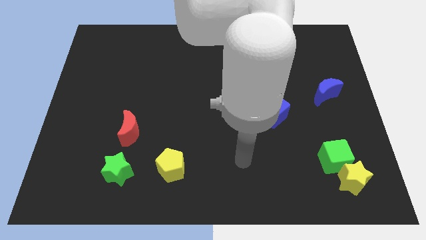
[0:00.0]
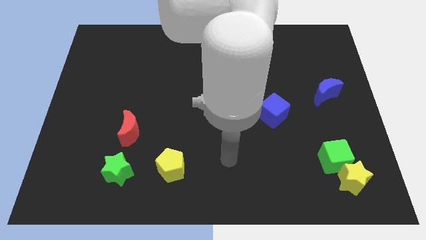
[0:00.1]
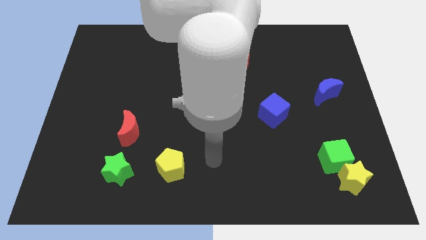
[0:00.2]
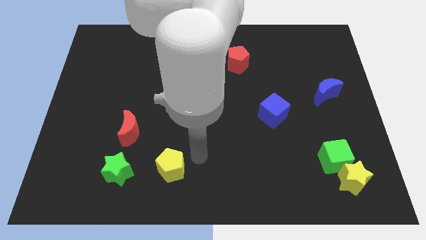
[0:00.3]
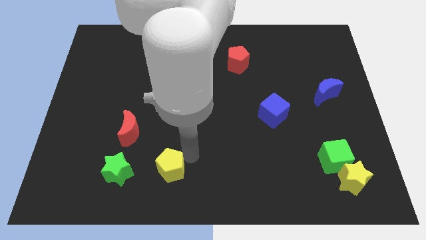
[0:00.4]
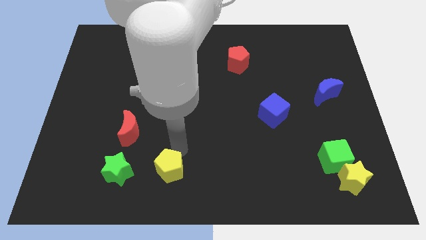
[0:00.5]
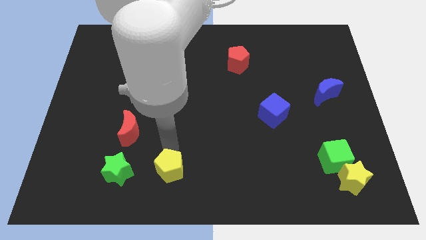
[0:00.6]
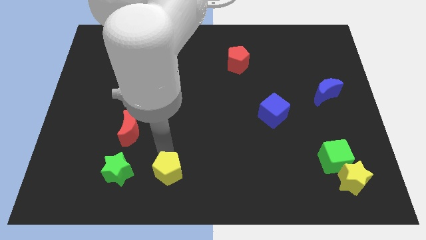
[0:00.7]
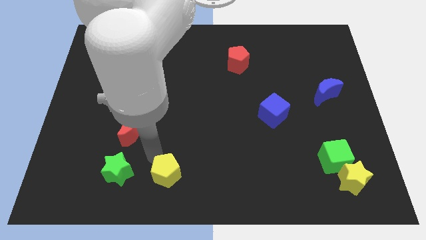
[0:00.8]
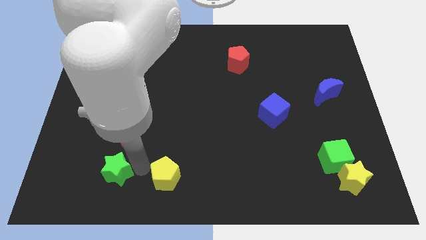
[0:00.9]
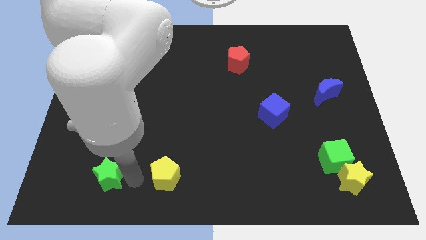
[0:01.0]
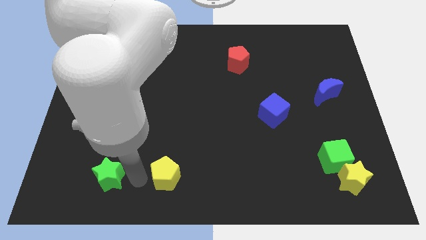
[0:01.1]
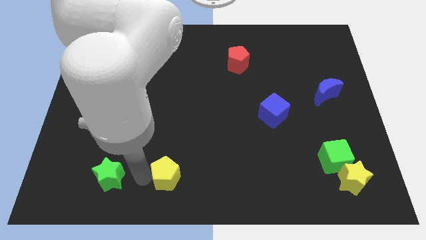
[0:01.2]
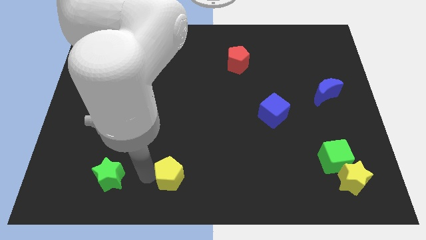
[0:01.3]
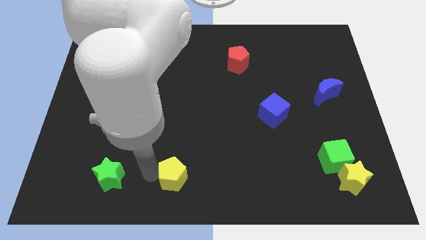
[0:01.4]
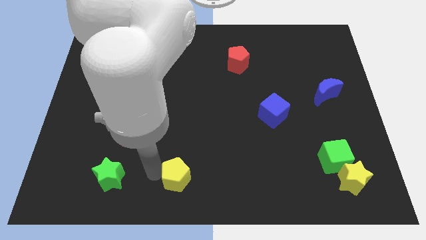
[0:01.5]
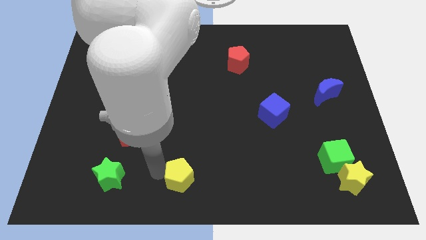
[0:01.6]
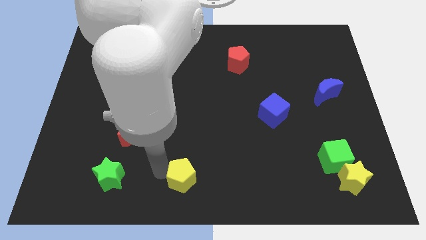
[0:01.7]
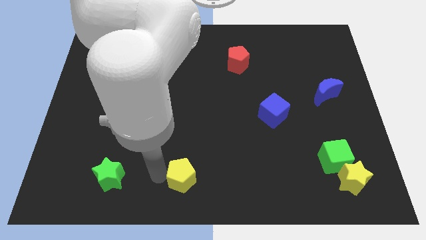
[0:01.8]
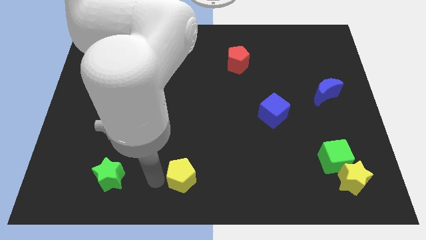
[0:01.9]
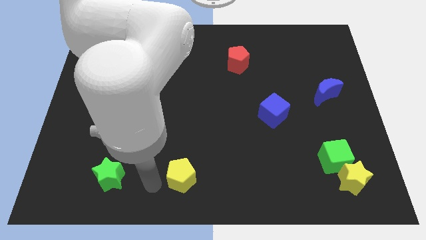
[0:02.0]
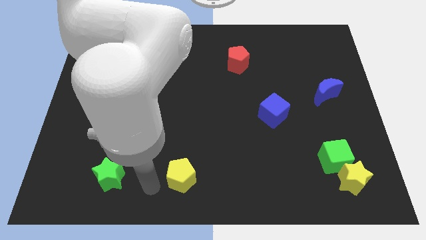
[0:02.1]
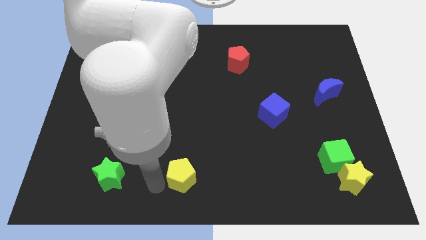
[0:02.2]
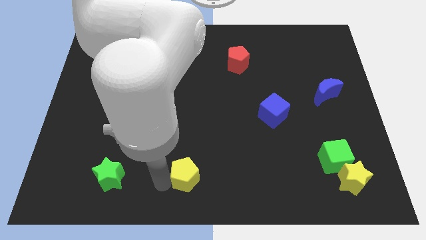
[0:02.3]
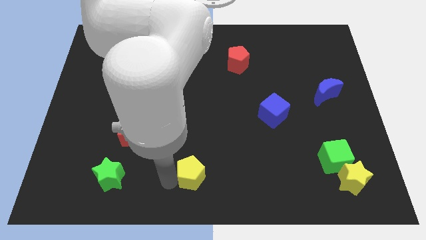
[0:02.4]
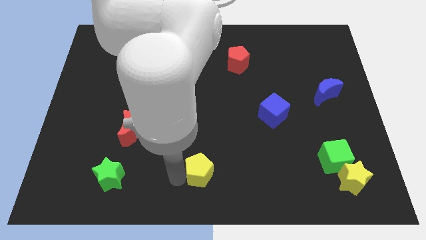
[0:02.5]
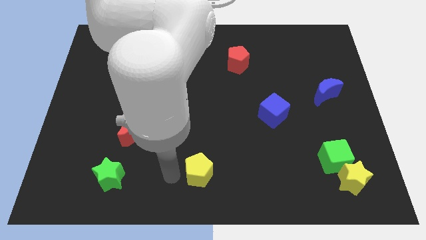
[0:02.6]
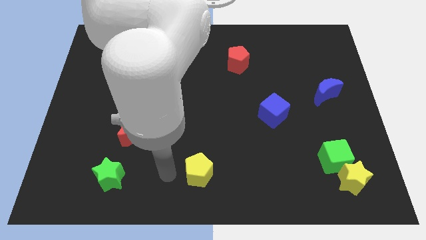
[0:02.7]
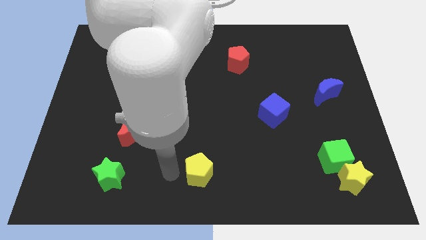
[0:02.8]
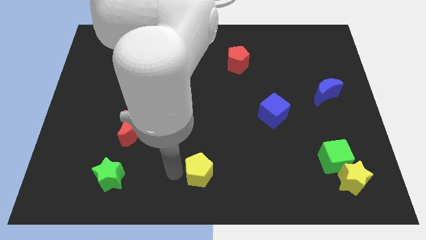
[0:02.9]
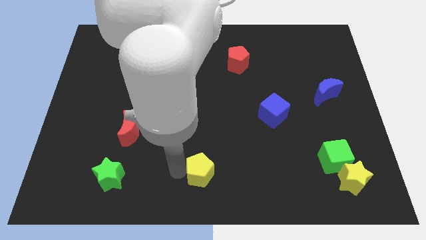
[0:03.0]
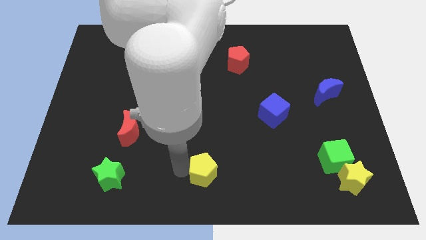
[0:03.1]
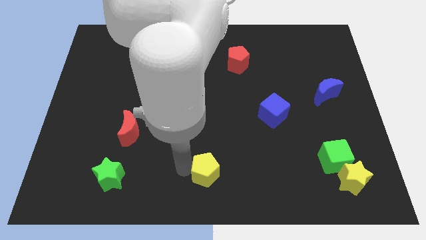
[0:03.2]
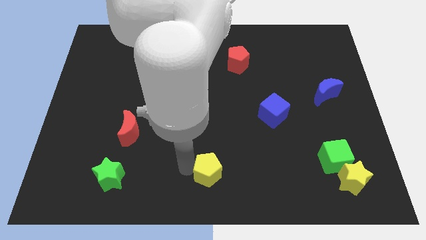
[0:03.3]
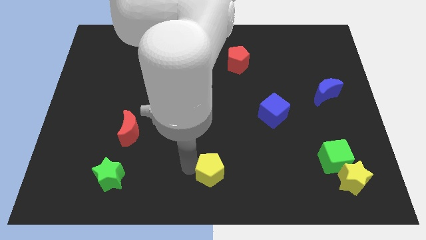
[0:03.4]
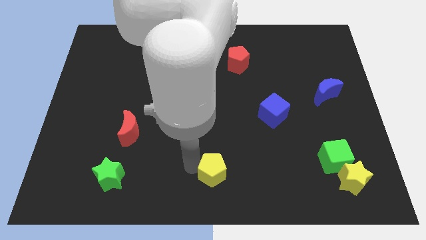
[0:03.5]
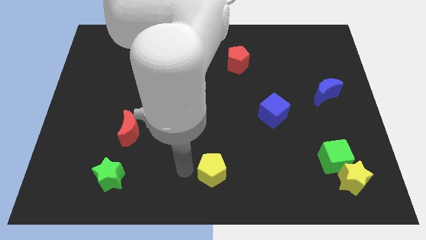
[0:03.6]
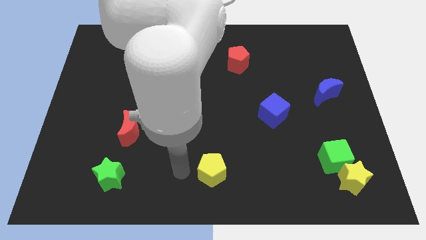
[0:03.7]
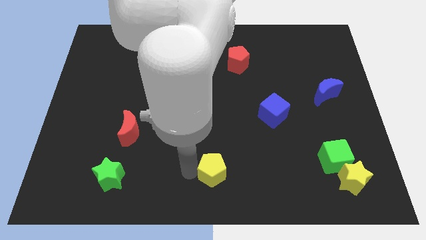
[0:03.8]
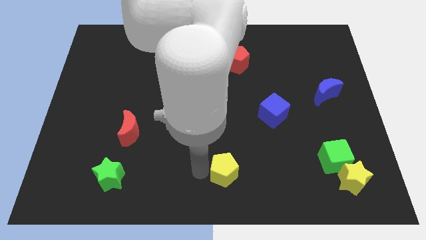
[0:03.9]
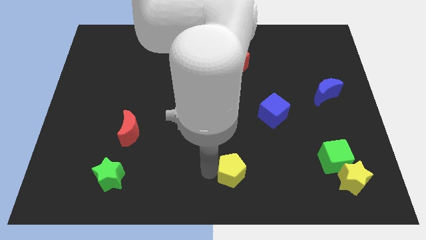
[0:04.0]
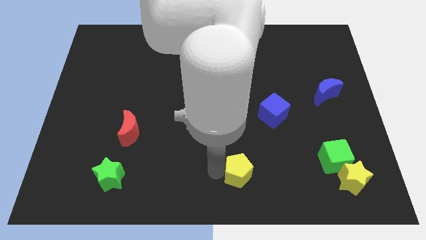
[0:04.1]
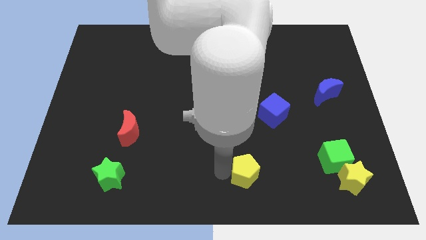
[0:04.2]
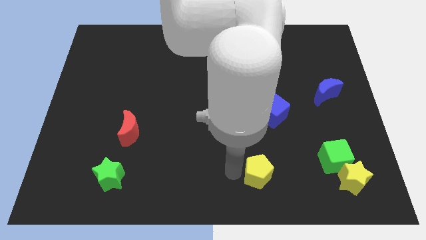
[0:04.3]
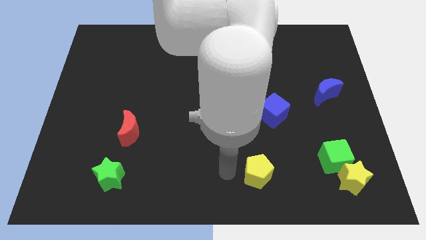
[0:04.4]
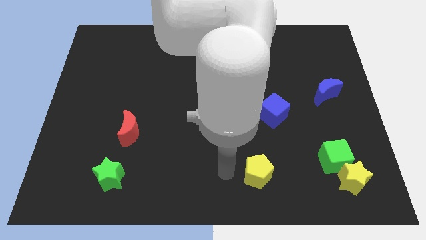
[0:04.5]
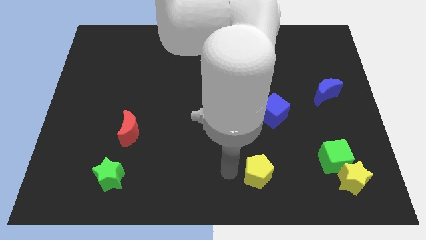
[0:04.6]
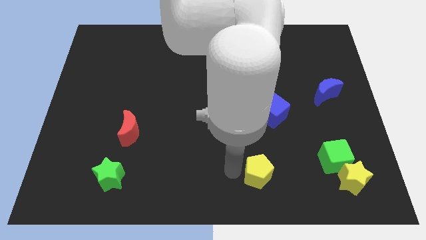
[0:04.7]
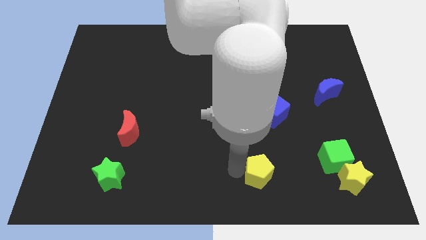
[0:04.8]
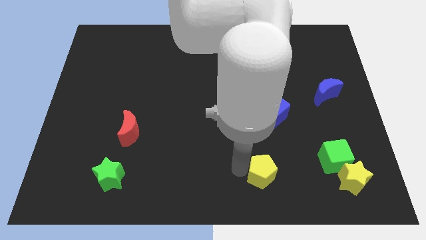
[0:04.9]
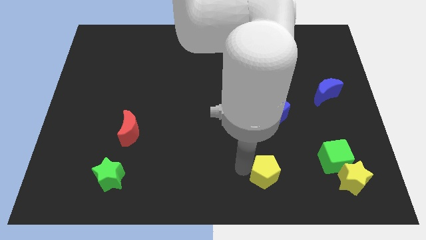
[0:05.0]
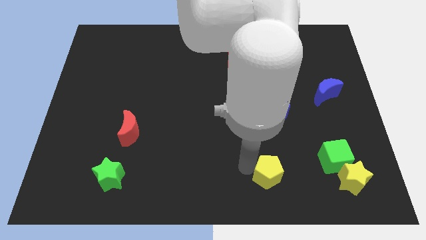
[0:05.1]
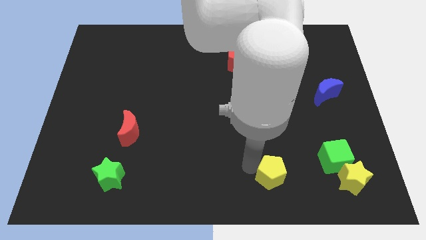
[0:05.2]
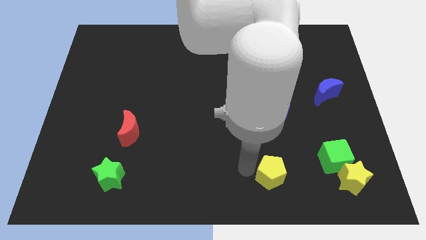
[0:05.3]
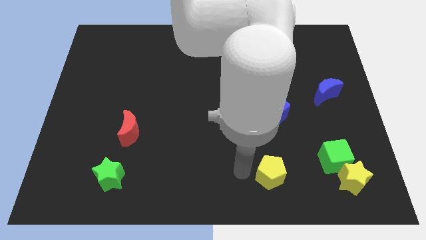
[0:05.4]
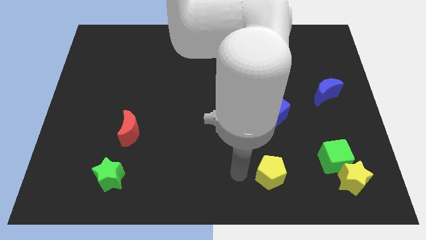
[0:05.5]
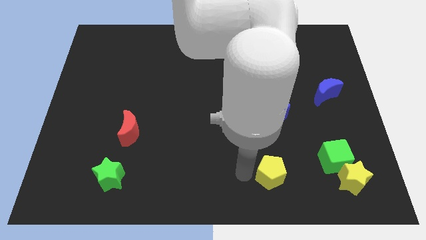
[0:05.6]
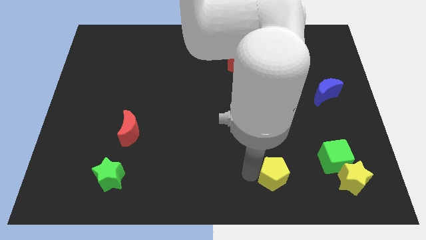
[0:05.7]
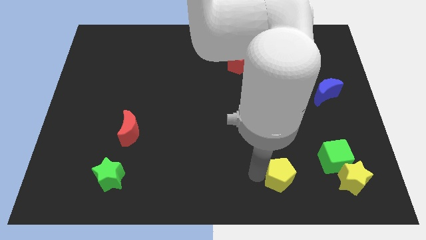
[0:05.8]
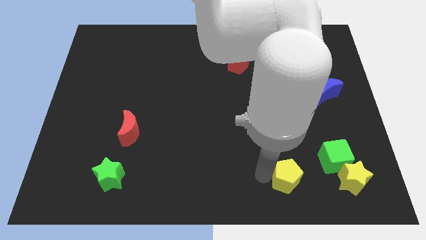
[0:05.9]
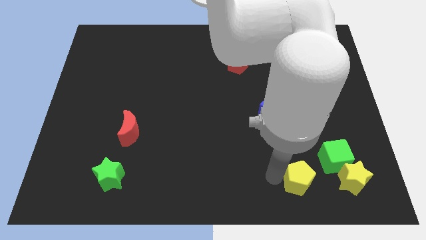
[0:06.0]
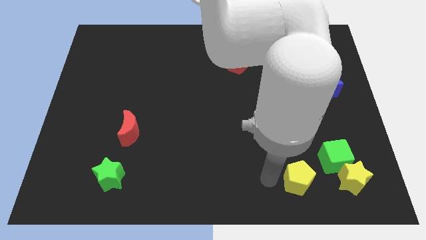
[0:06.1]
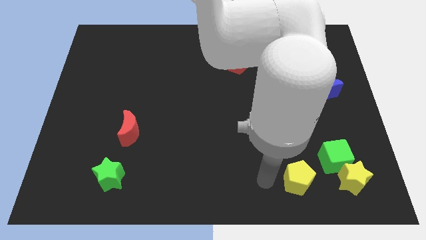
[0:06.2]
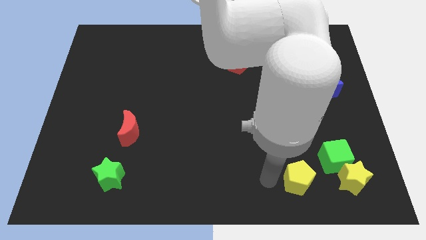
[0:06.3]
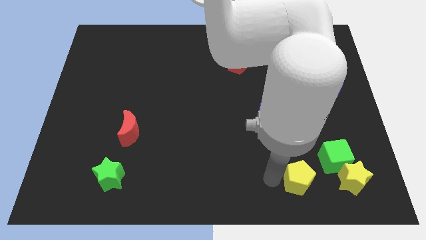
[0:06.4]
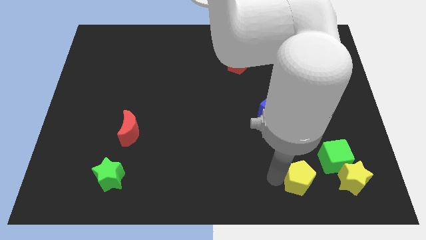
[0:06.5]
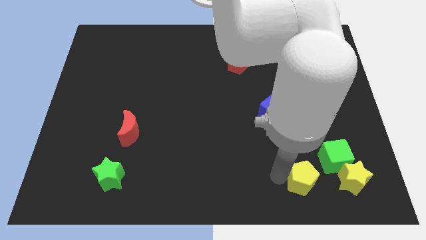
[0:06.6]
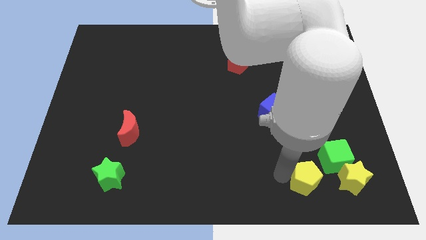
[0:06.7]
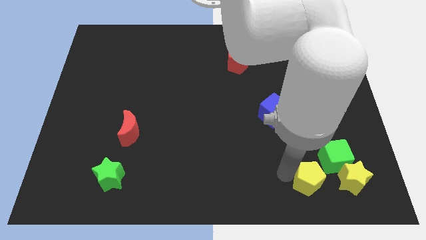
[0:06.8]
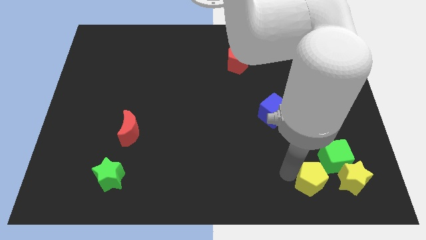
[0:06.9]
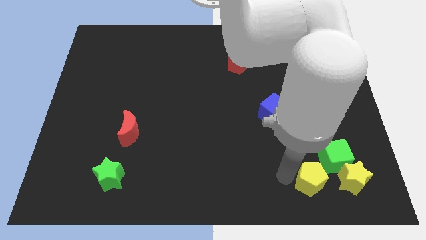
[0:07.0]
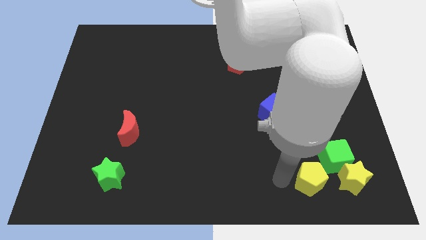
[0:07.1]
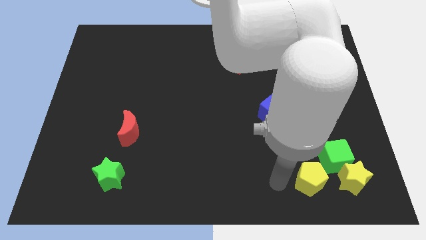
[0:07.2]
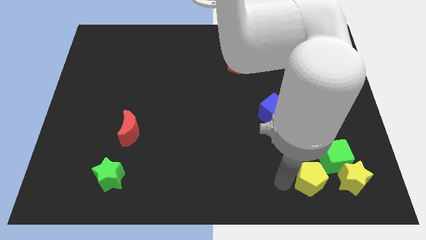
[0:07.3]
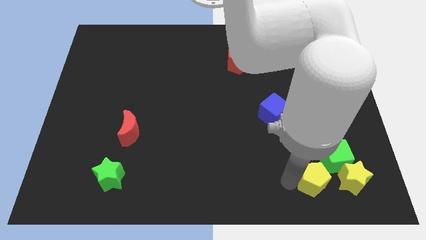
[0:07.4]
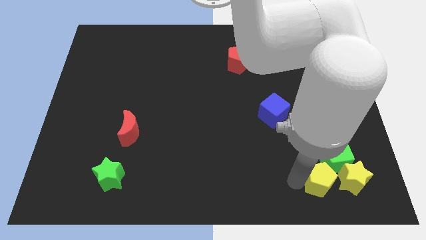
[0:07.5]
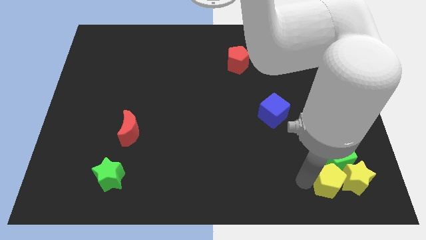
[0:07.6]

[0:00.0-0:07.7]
move the yellow pentagon to the yellow star
